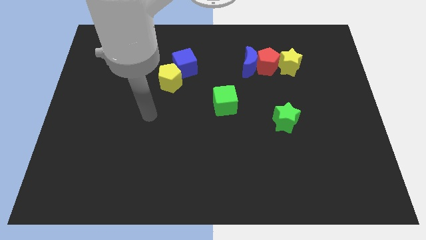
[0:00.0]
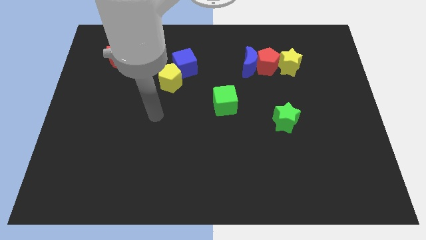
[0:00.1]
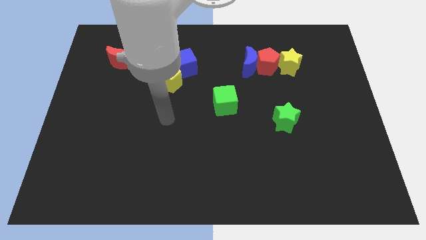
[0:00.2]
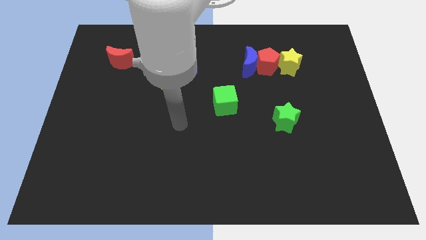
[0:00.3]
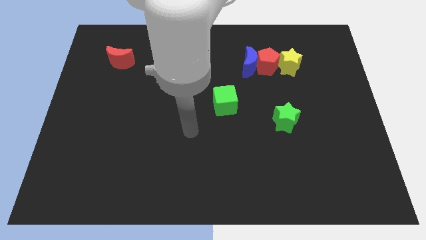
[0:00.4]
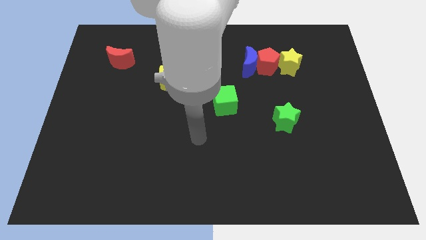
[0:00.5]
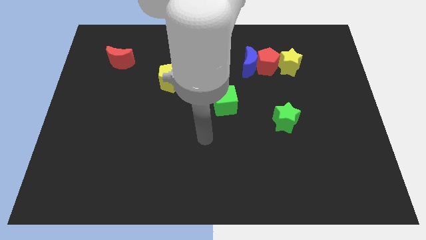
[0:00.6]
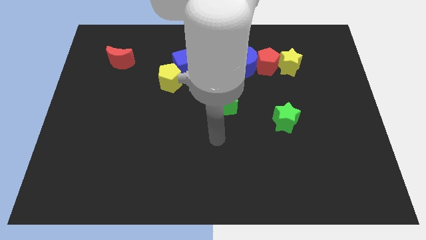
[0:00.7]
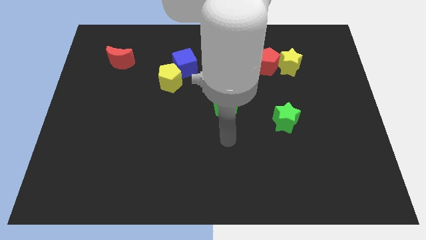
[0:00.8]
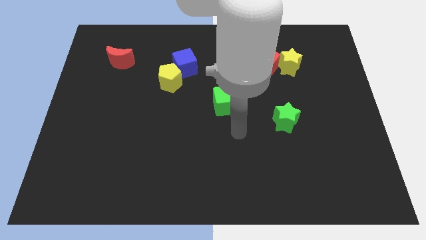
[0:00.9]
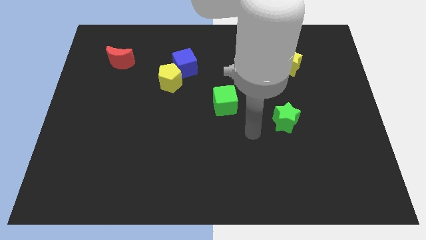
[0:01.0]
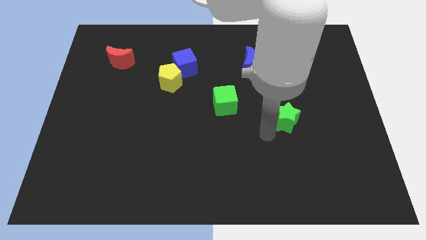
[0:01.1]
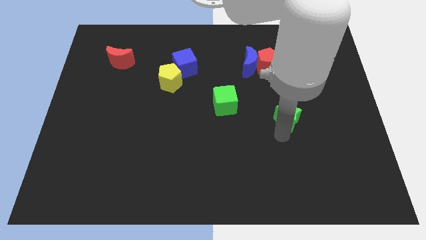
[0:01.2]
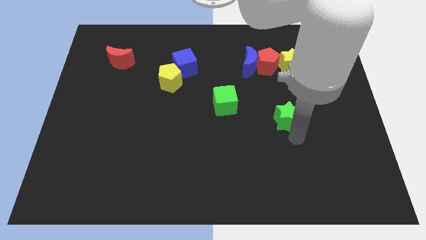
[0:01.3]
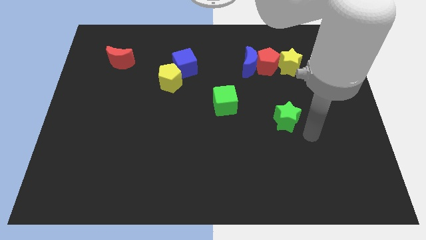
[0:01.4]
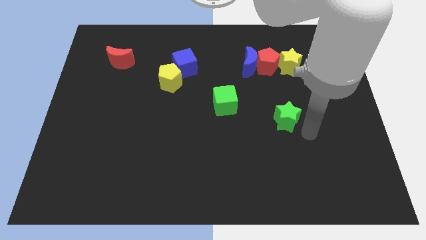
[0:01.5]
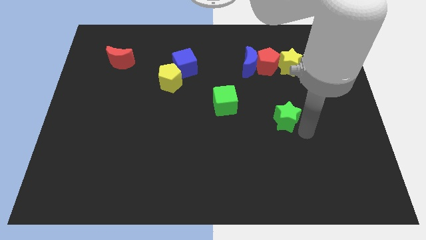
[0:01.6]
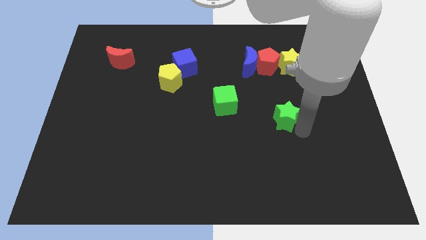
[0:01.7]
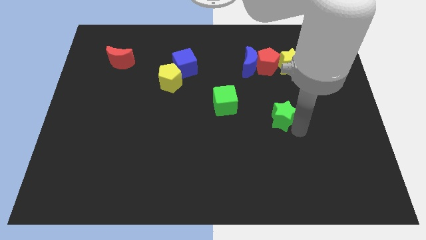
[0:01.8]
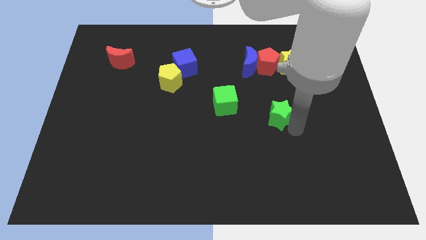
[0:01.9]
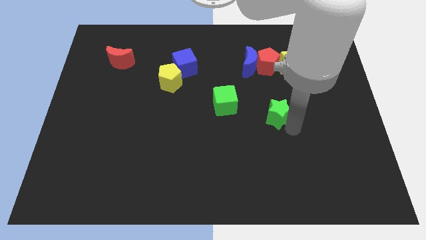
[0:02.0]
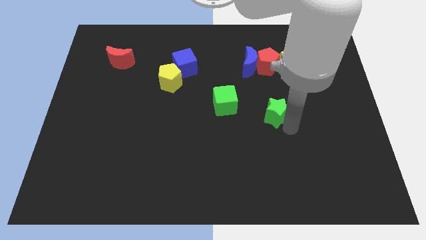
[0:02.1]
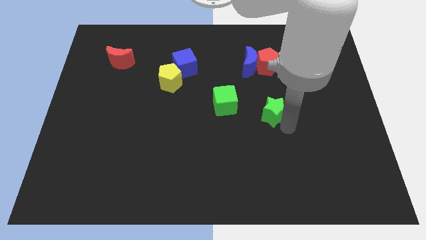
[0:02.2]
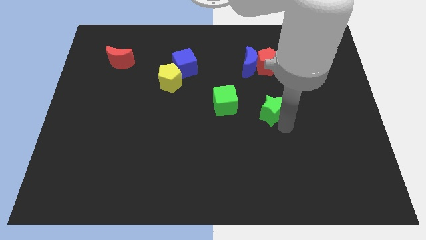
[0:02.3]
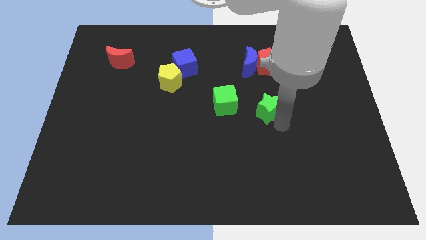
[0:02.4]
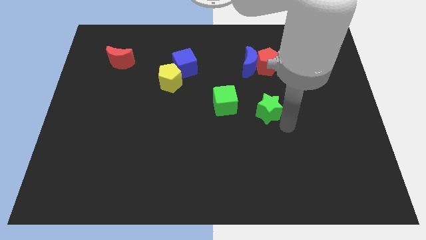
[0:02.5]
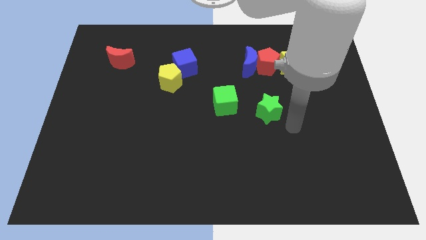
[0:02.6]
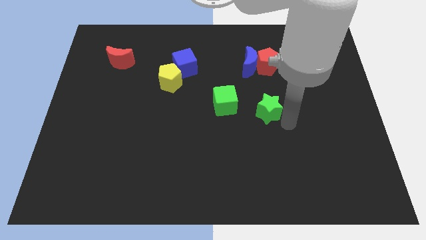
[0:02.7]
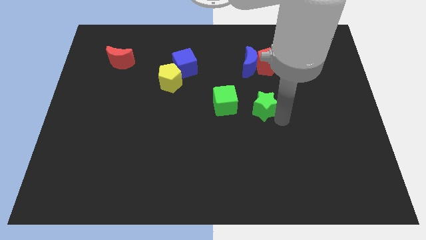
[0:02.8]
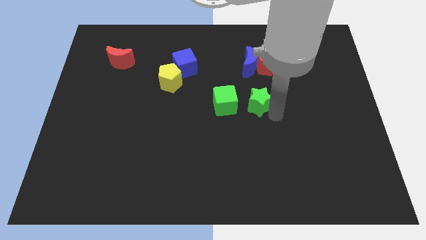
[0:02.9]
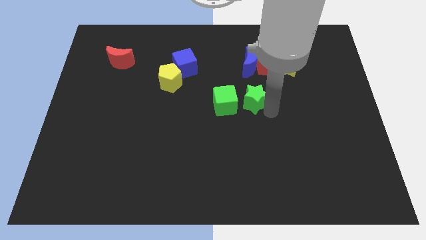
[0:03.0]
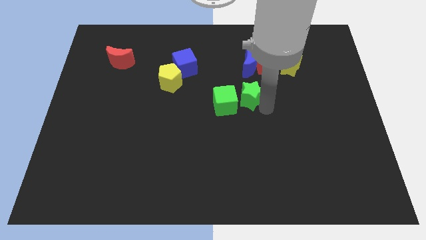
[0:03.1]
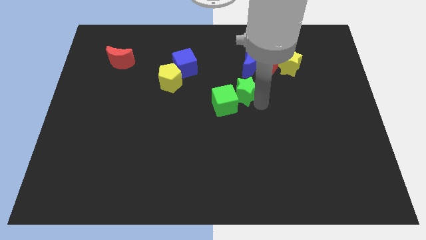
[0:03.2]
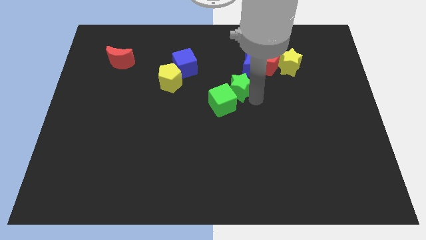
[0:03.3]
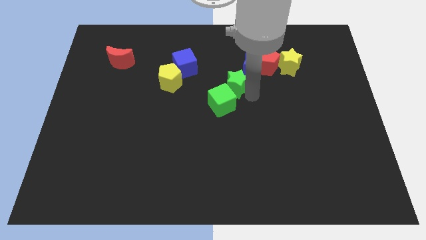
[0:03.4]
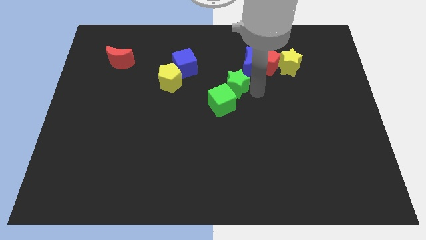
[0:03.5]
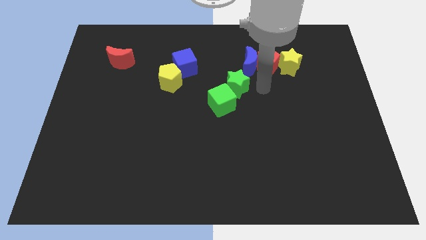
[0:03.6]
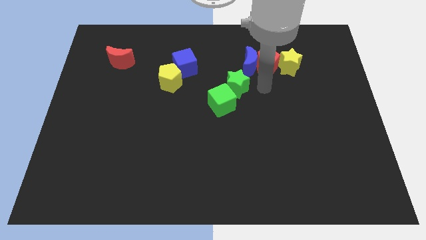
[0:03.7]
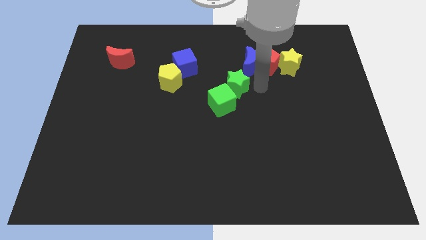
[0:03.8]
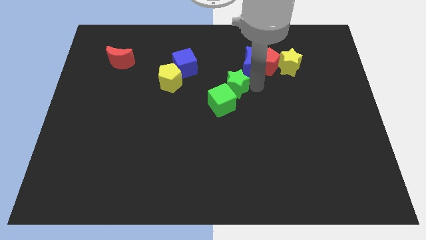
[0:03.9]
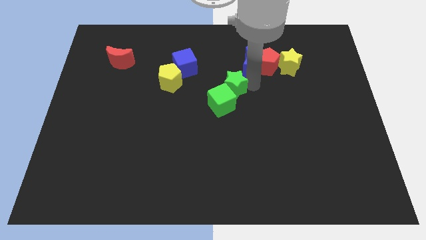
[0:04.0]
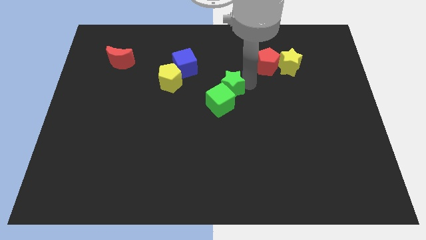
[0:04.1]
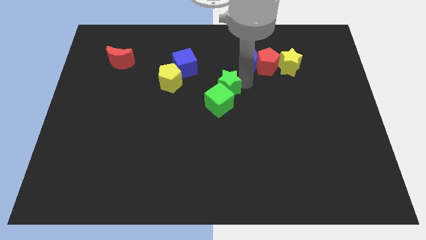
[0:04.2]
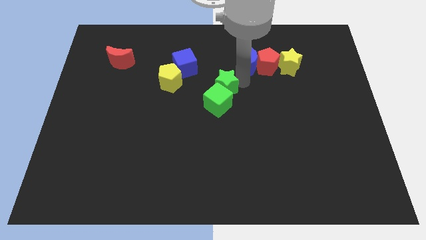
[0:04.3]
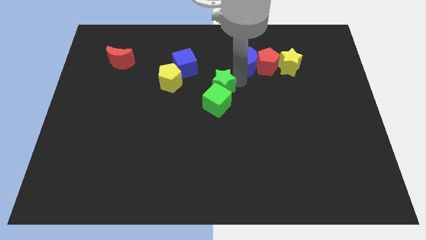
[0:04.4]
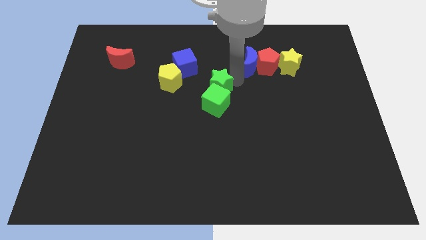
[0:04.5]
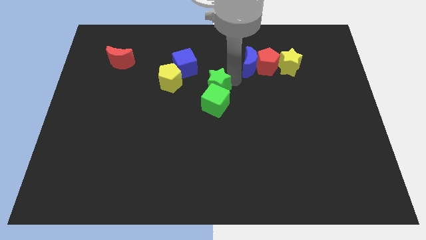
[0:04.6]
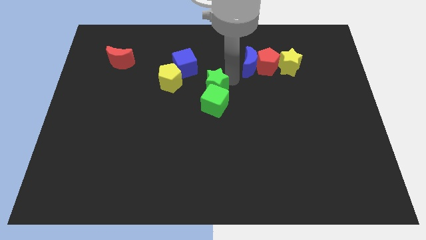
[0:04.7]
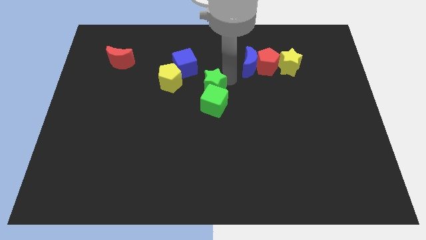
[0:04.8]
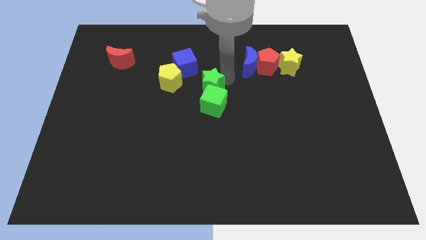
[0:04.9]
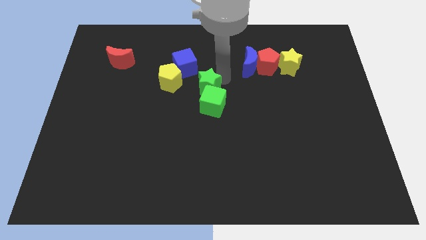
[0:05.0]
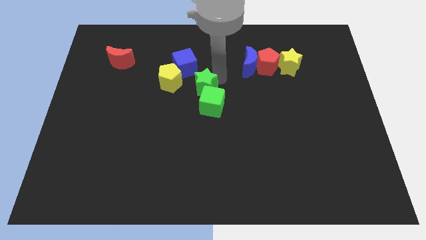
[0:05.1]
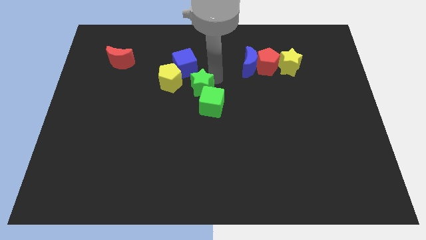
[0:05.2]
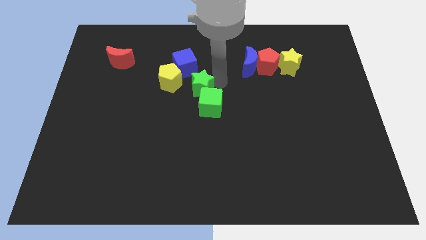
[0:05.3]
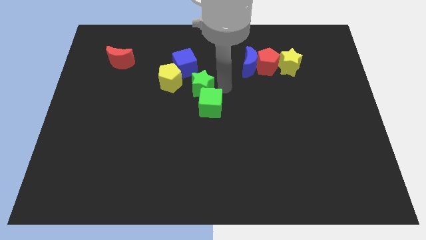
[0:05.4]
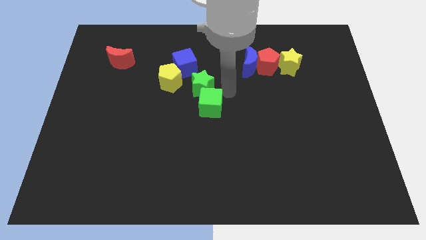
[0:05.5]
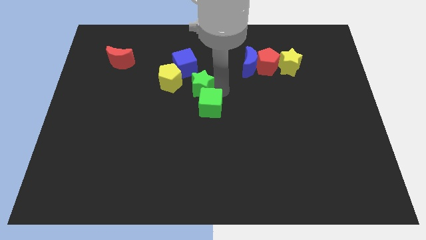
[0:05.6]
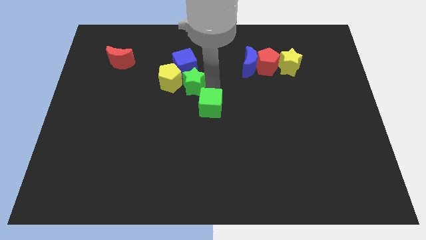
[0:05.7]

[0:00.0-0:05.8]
push the green star to the yellow pentagon

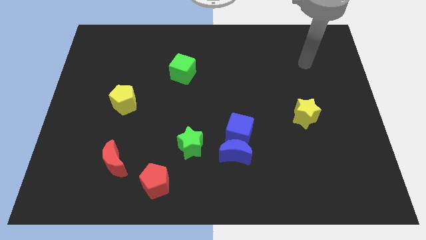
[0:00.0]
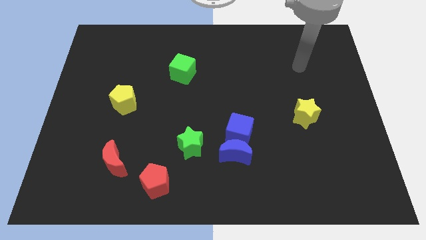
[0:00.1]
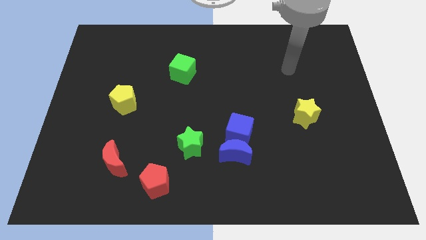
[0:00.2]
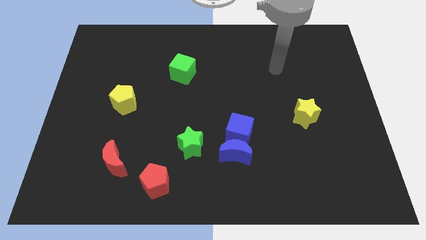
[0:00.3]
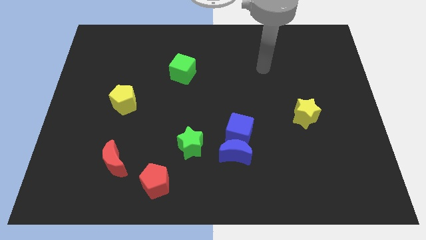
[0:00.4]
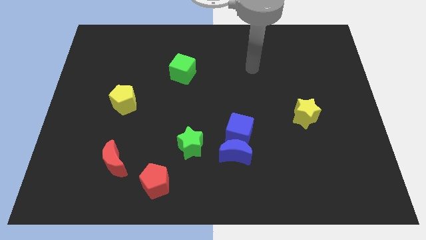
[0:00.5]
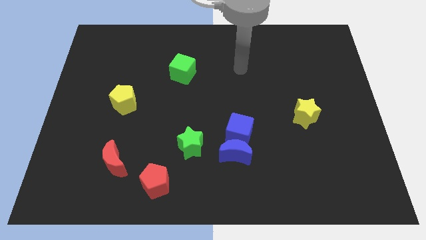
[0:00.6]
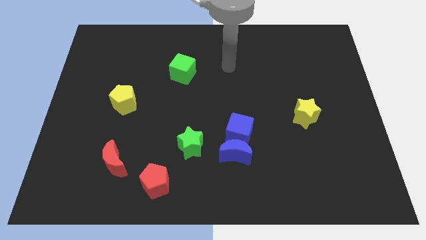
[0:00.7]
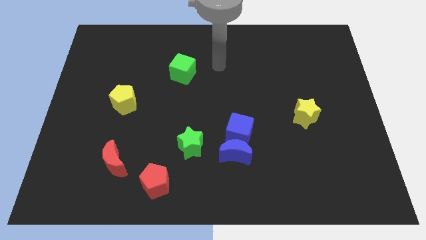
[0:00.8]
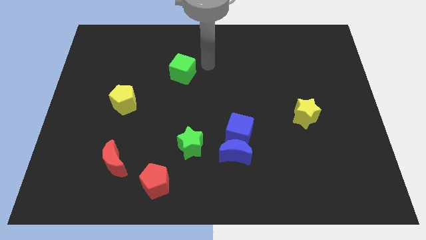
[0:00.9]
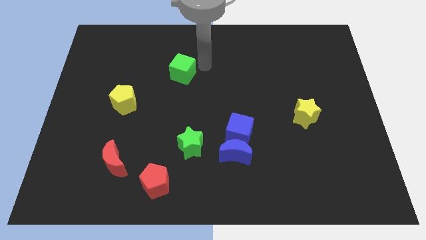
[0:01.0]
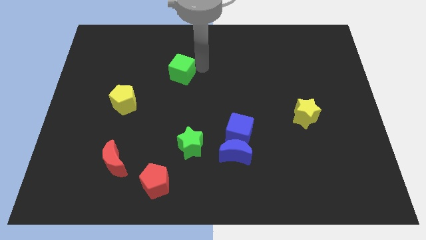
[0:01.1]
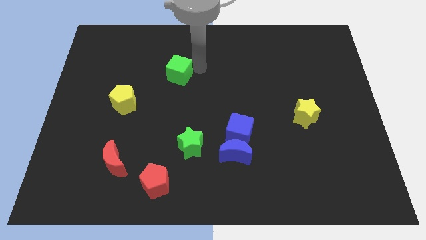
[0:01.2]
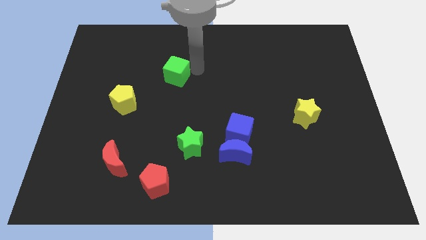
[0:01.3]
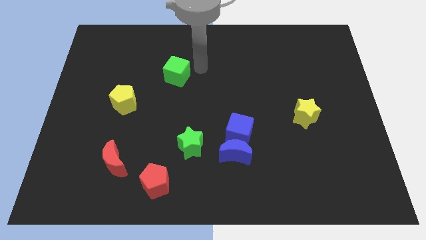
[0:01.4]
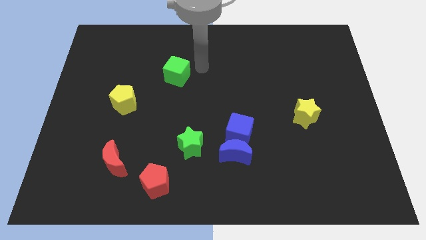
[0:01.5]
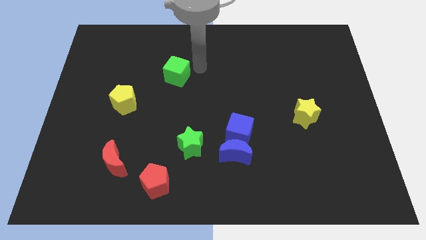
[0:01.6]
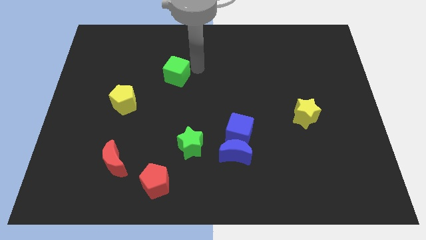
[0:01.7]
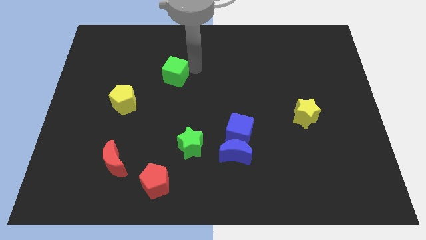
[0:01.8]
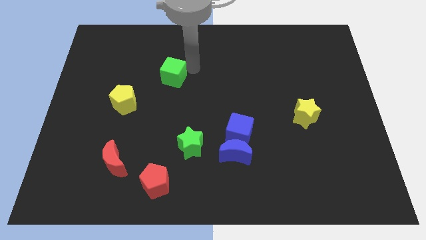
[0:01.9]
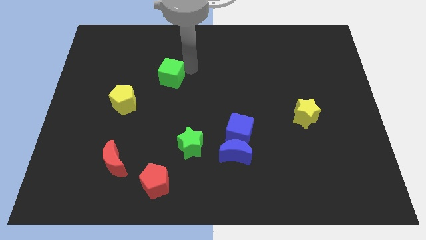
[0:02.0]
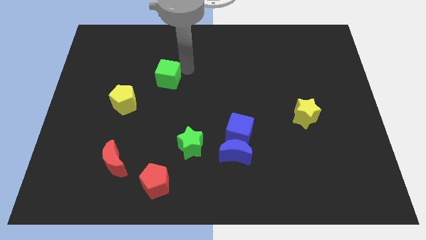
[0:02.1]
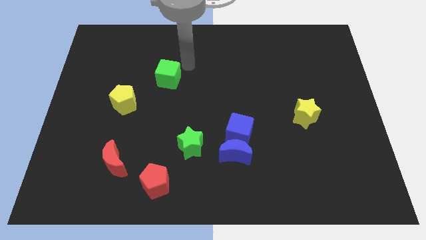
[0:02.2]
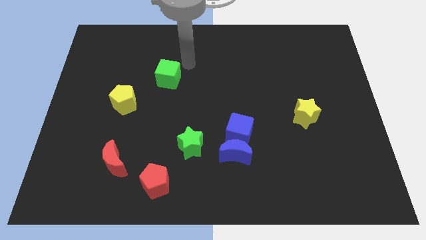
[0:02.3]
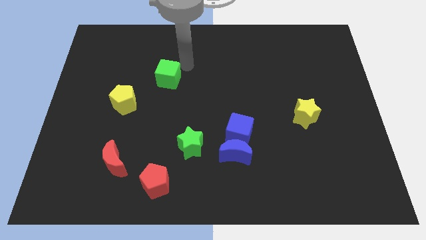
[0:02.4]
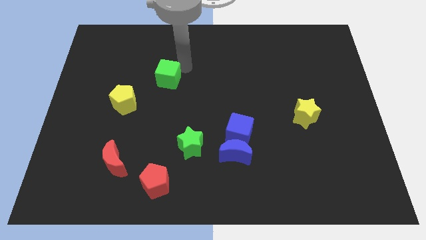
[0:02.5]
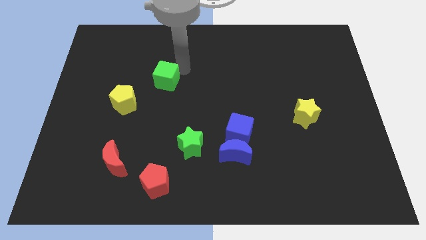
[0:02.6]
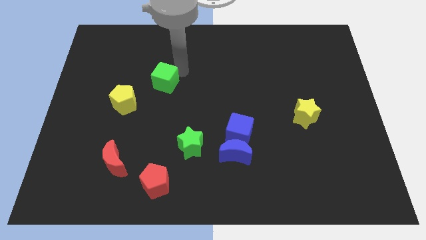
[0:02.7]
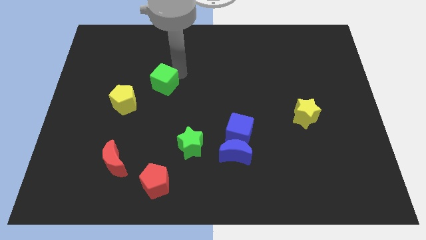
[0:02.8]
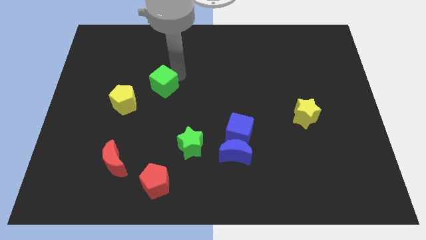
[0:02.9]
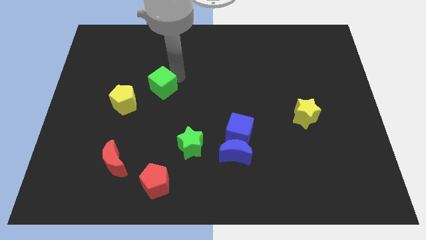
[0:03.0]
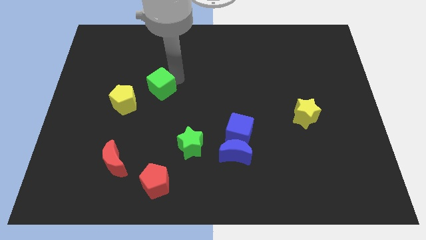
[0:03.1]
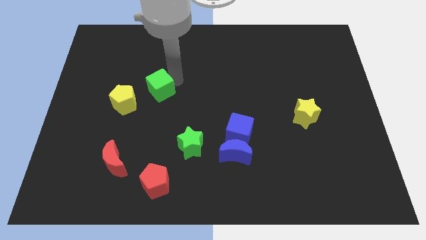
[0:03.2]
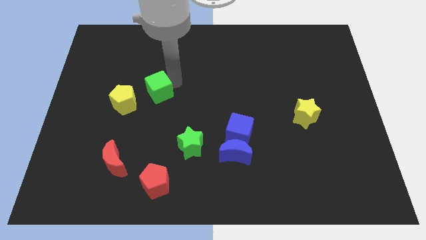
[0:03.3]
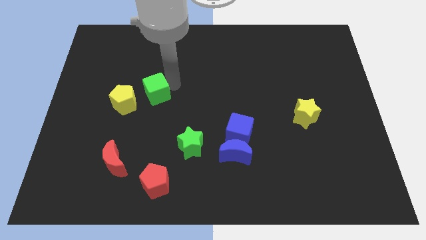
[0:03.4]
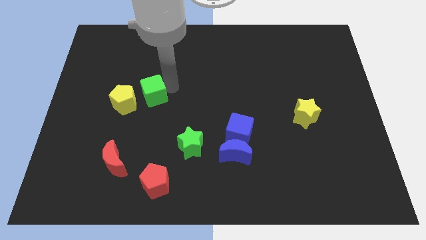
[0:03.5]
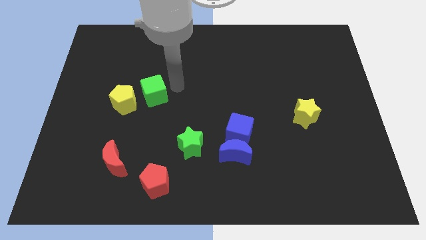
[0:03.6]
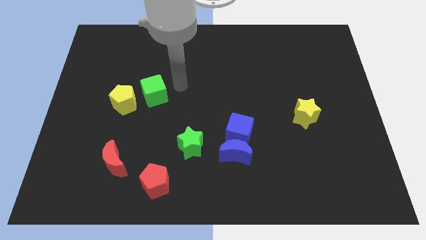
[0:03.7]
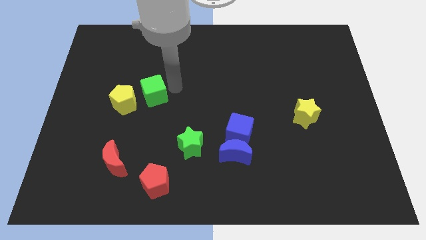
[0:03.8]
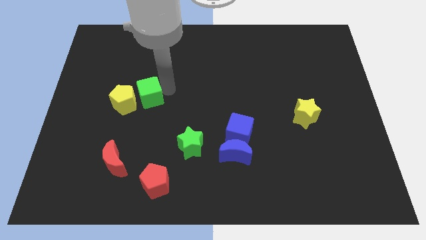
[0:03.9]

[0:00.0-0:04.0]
move the green cube next to the yellow pentagon
